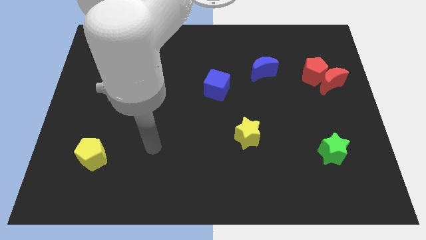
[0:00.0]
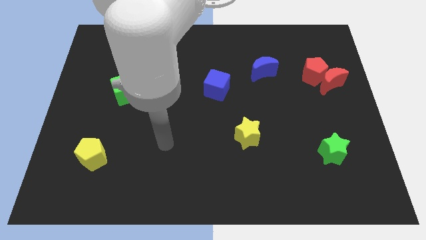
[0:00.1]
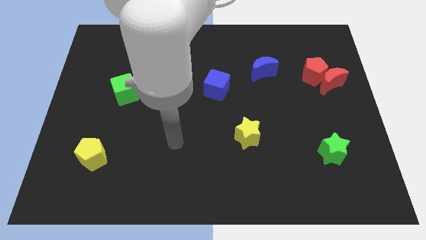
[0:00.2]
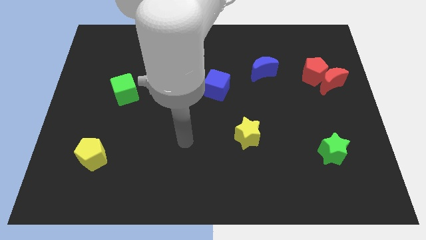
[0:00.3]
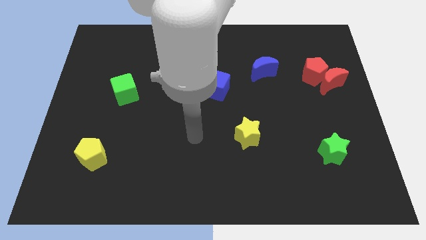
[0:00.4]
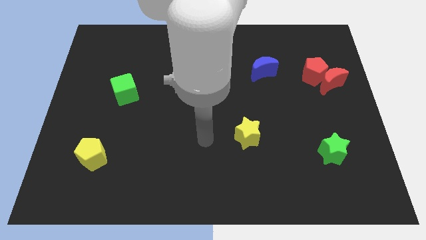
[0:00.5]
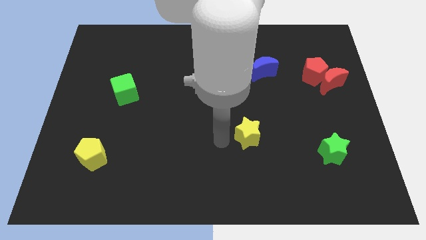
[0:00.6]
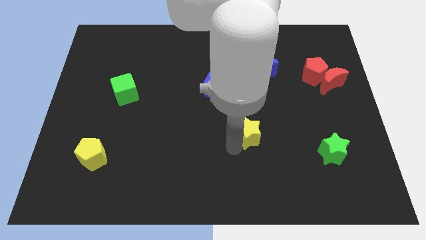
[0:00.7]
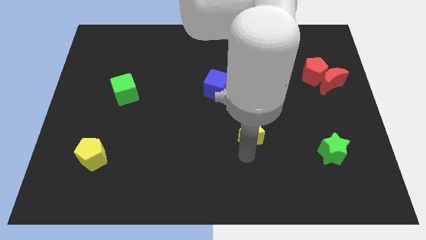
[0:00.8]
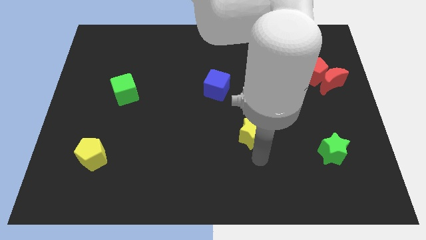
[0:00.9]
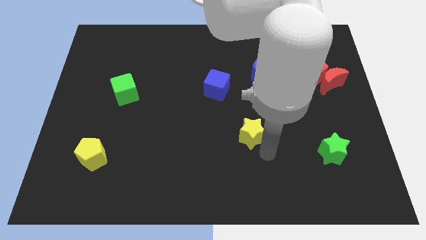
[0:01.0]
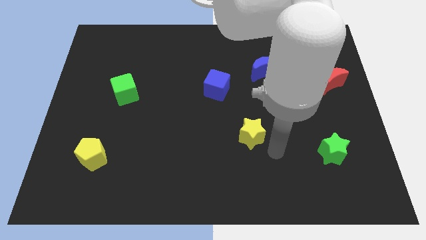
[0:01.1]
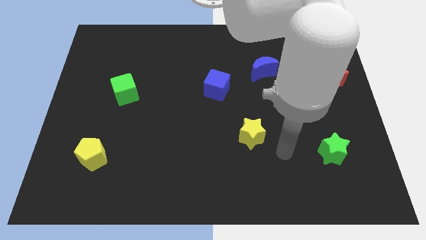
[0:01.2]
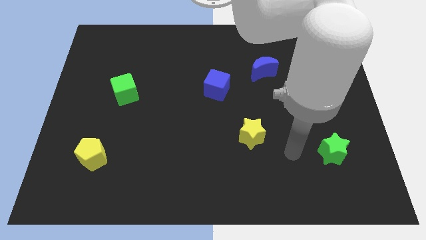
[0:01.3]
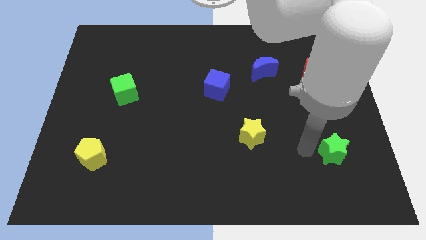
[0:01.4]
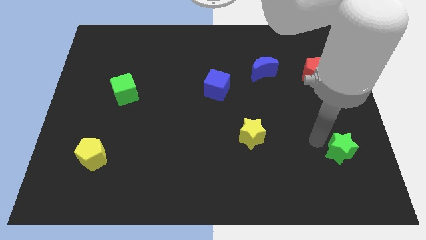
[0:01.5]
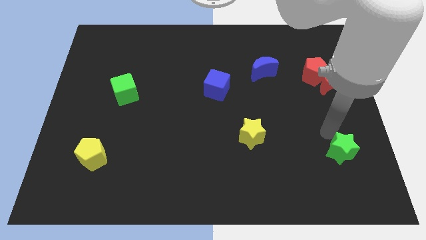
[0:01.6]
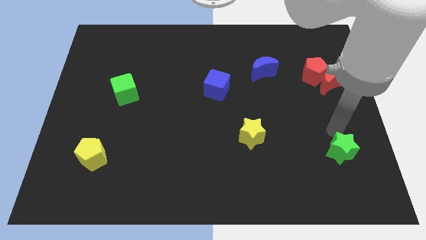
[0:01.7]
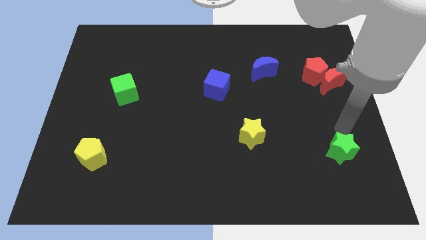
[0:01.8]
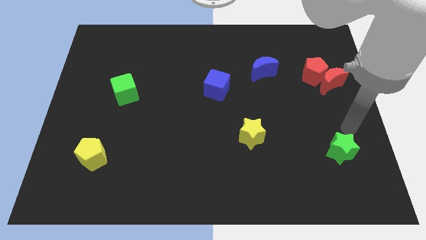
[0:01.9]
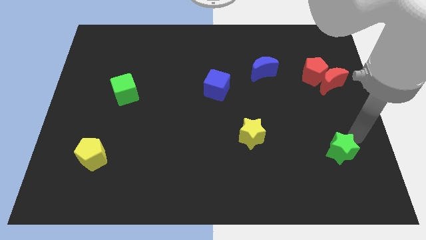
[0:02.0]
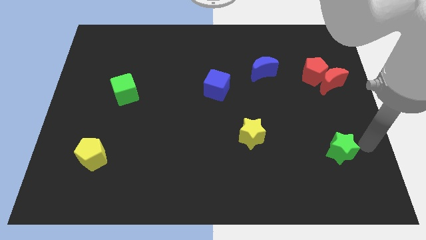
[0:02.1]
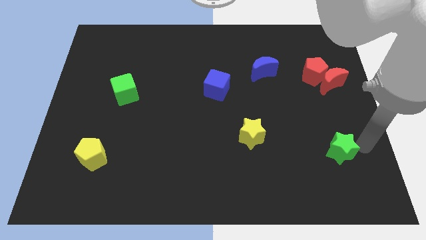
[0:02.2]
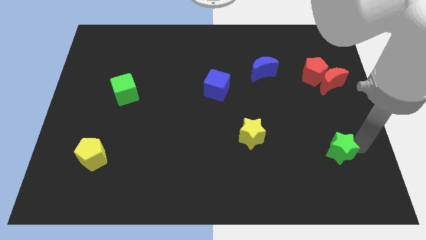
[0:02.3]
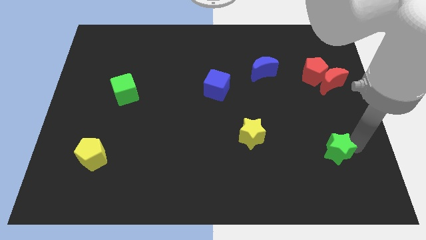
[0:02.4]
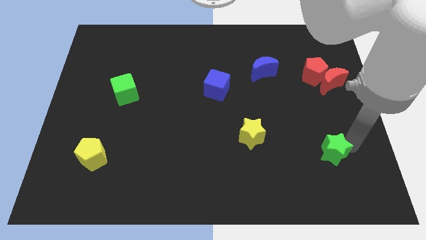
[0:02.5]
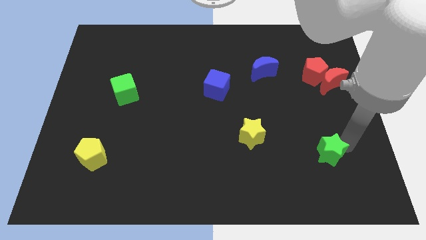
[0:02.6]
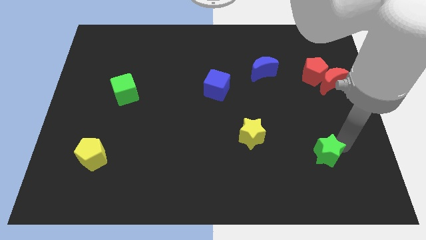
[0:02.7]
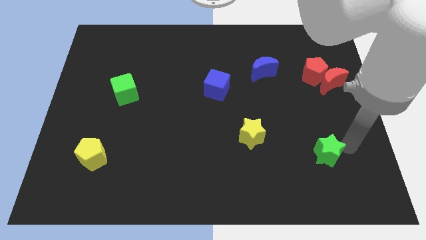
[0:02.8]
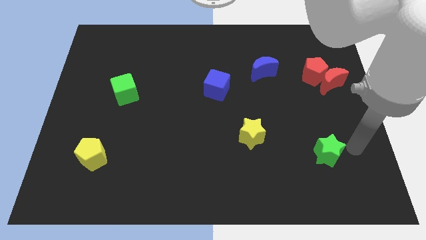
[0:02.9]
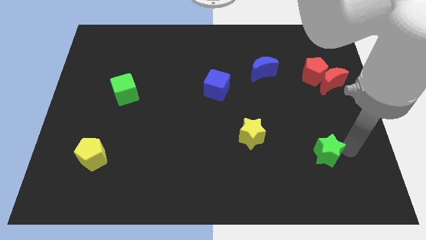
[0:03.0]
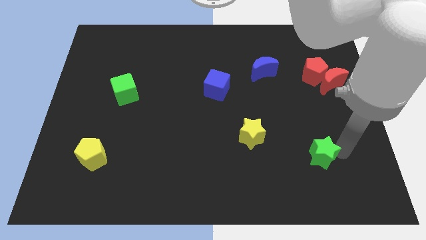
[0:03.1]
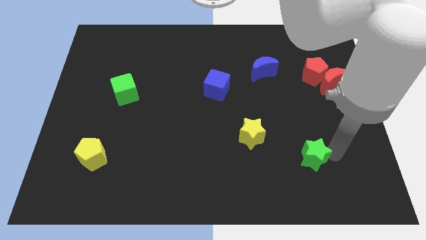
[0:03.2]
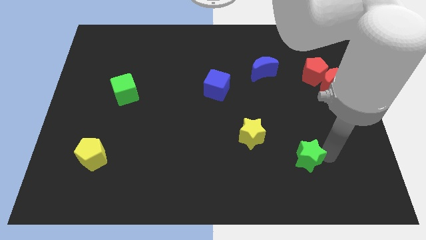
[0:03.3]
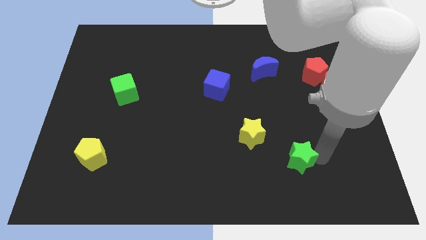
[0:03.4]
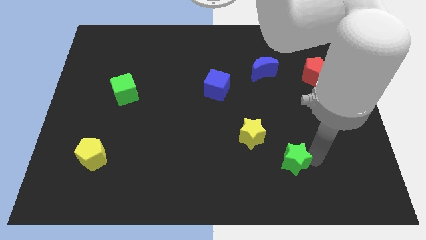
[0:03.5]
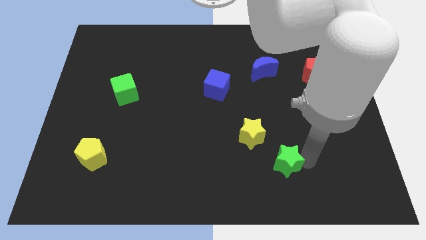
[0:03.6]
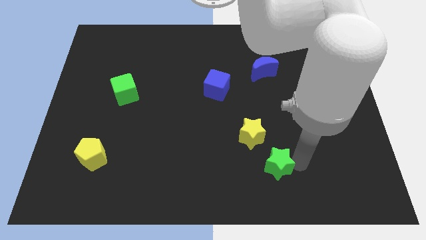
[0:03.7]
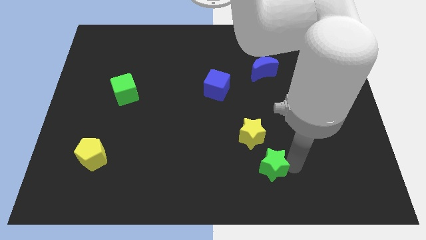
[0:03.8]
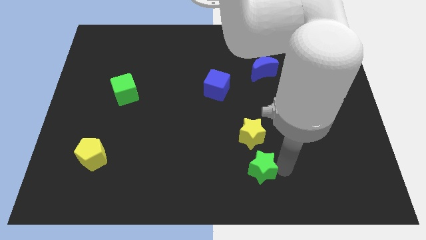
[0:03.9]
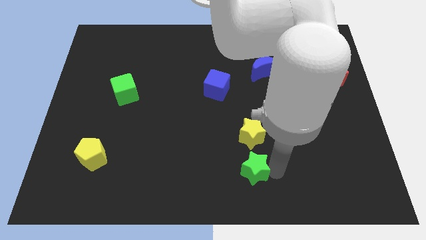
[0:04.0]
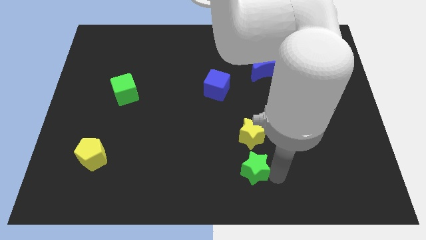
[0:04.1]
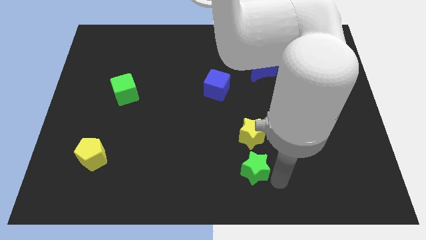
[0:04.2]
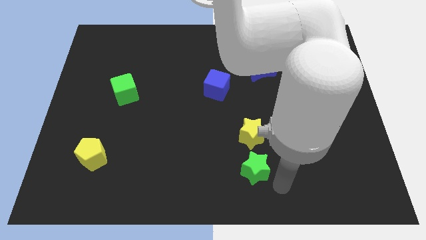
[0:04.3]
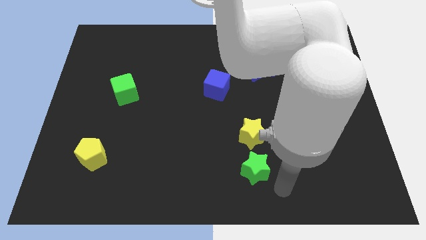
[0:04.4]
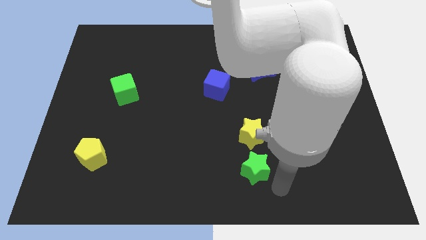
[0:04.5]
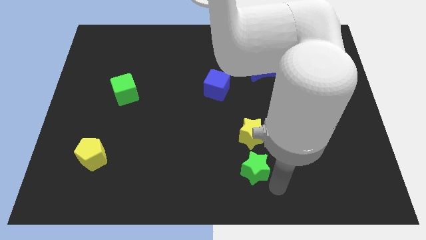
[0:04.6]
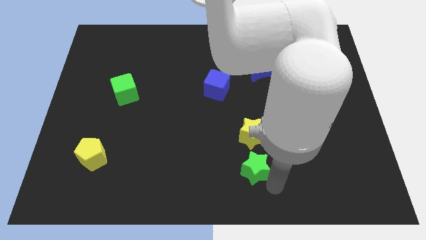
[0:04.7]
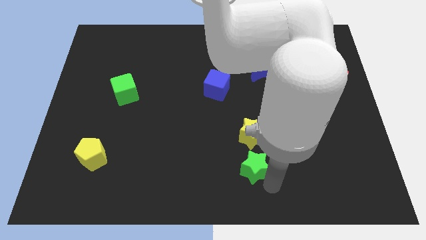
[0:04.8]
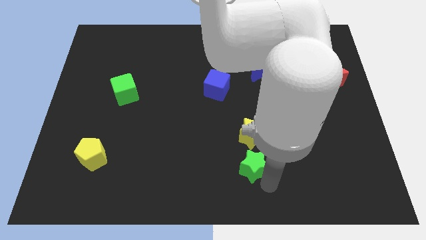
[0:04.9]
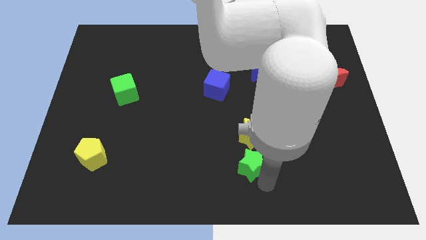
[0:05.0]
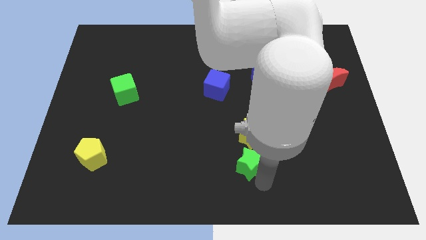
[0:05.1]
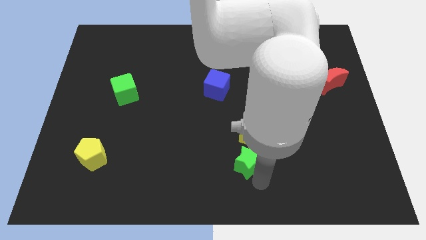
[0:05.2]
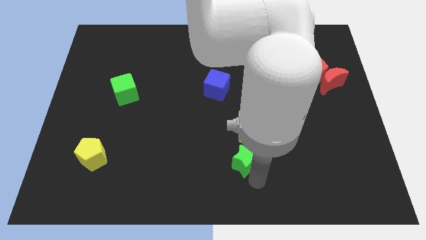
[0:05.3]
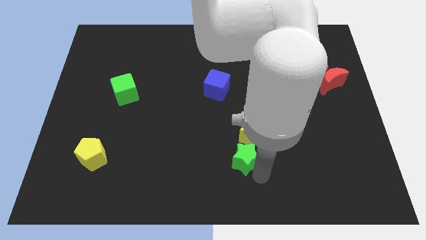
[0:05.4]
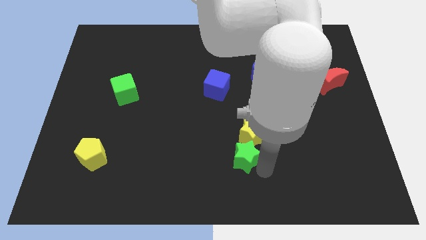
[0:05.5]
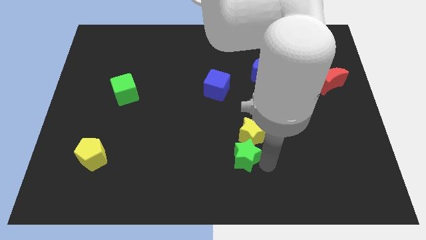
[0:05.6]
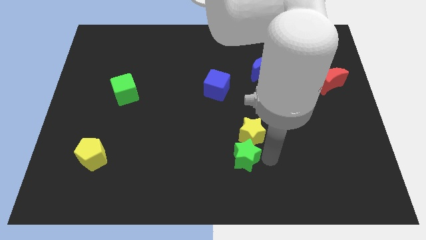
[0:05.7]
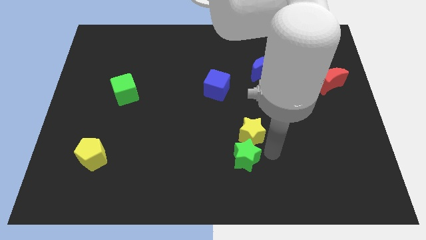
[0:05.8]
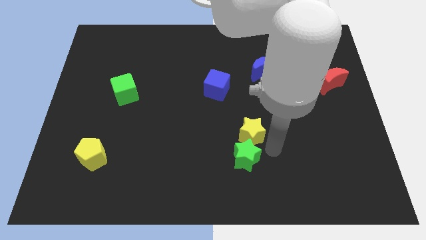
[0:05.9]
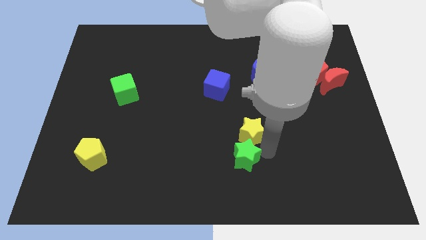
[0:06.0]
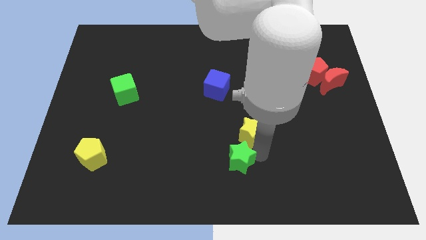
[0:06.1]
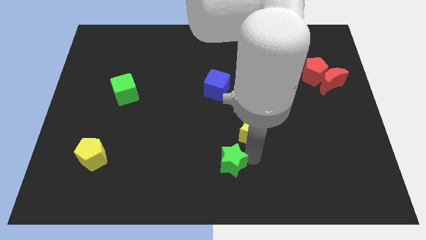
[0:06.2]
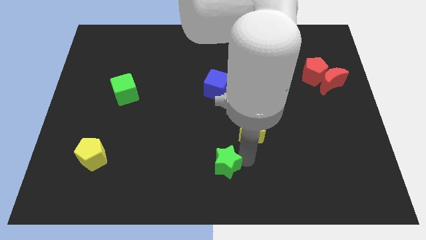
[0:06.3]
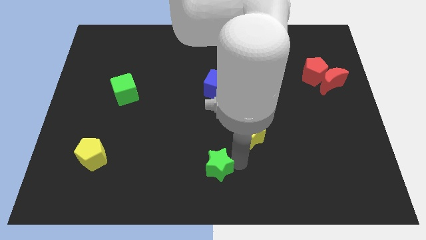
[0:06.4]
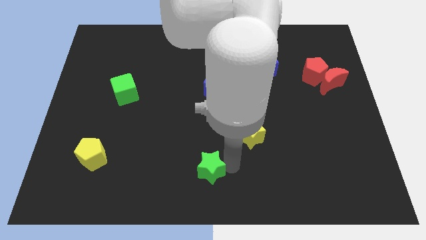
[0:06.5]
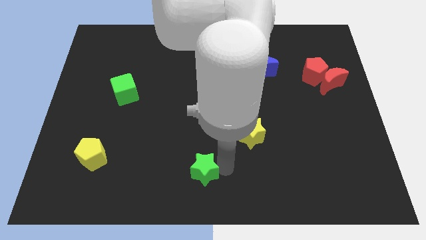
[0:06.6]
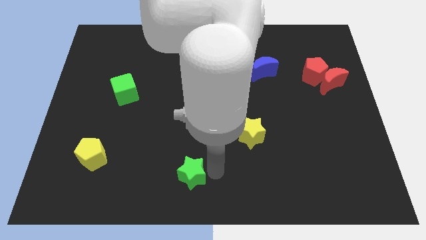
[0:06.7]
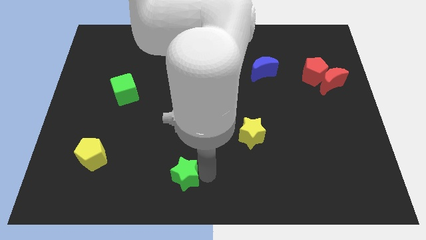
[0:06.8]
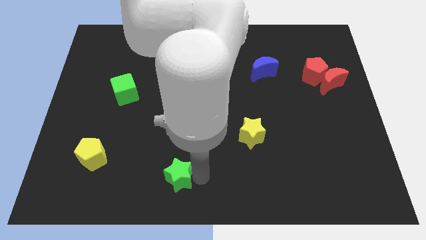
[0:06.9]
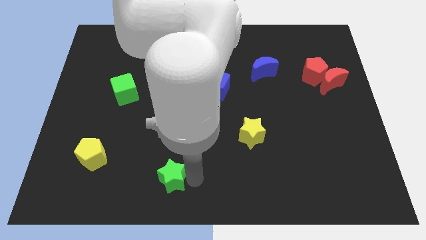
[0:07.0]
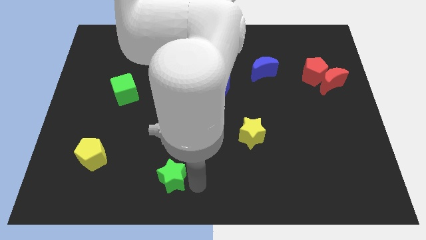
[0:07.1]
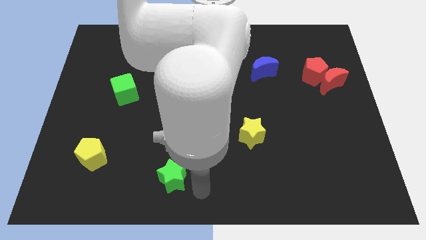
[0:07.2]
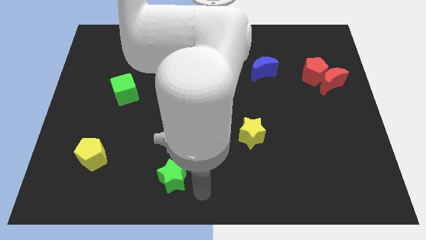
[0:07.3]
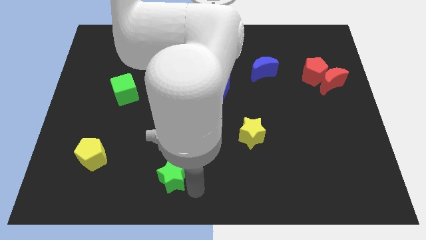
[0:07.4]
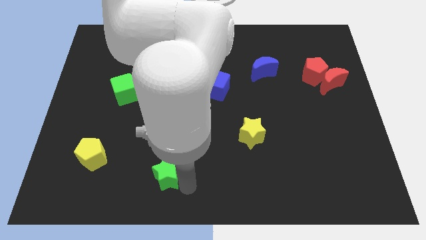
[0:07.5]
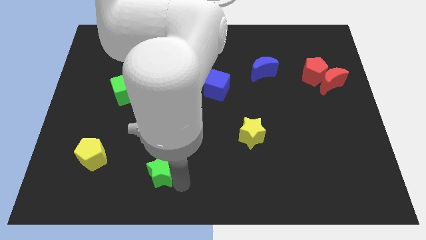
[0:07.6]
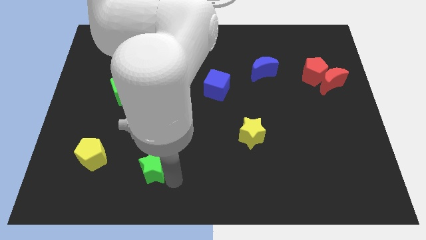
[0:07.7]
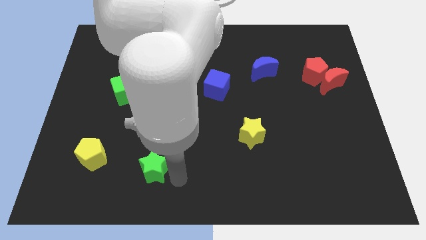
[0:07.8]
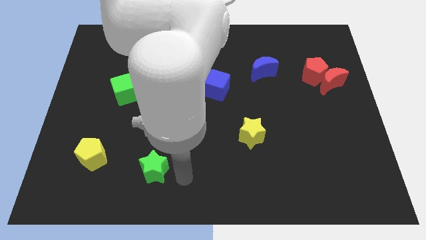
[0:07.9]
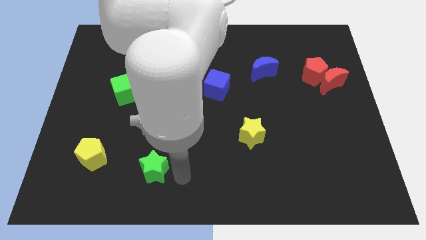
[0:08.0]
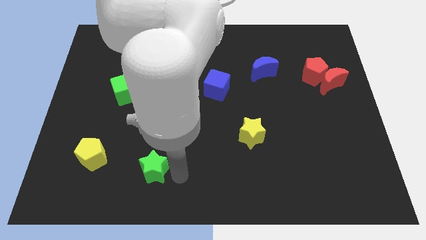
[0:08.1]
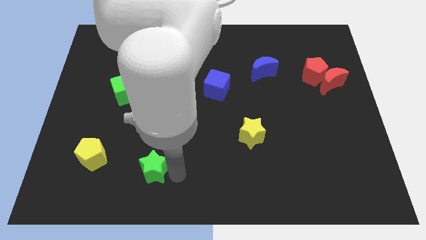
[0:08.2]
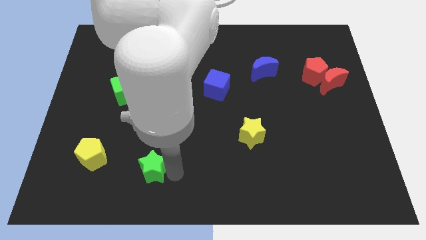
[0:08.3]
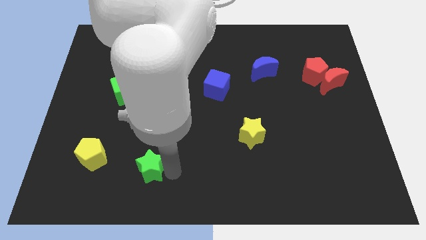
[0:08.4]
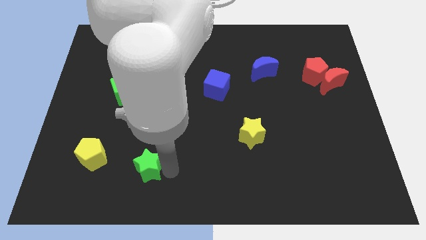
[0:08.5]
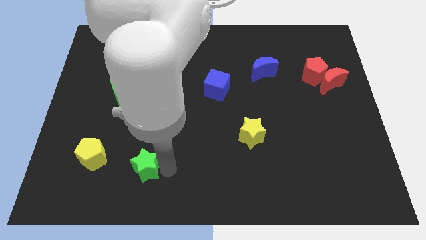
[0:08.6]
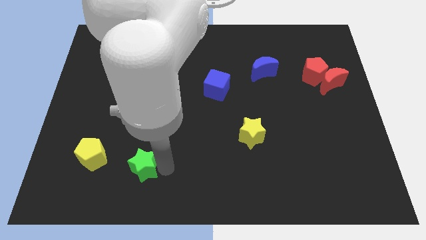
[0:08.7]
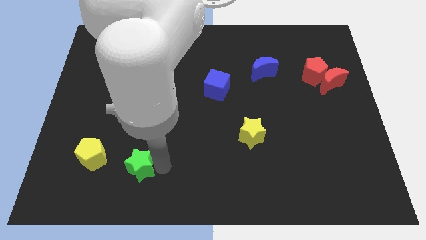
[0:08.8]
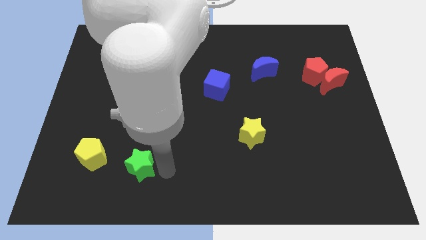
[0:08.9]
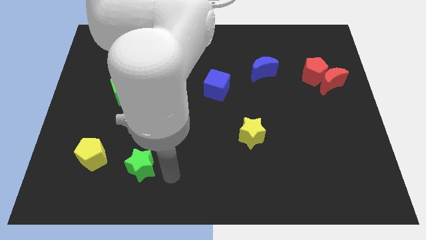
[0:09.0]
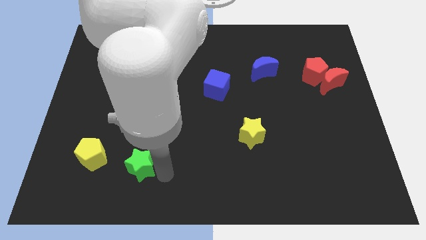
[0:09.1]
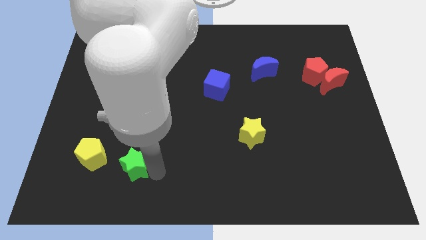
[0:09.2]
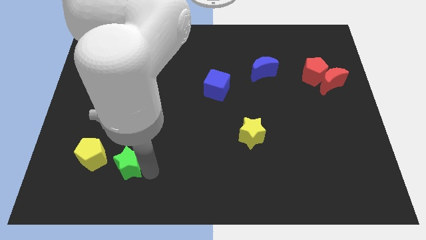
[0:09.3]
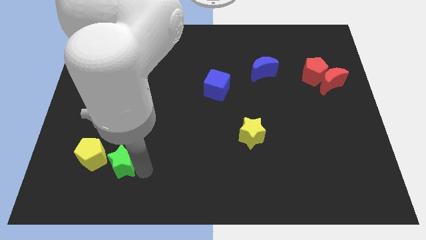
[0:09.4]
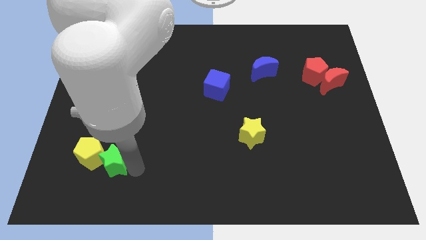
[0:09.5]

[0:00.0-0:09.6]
push the green star close to the yellow pentagon
